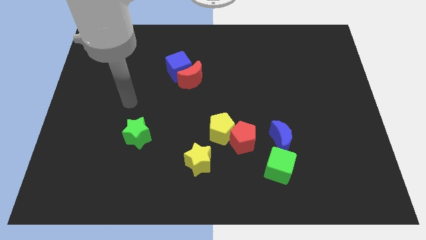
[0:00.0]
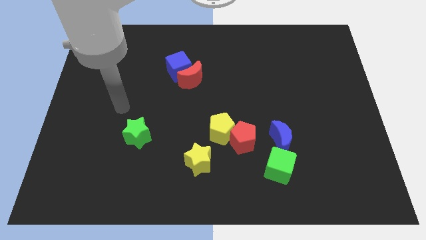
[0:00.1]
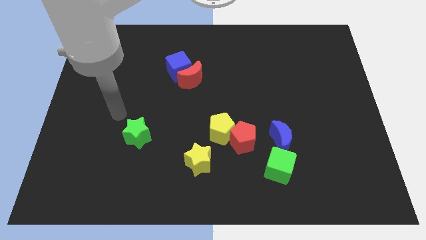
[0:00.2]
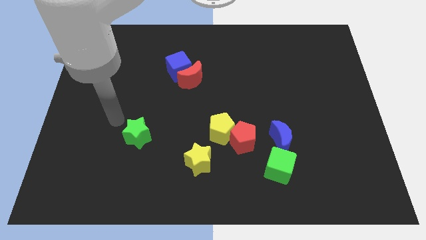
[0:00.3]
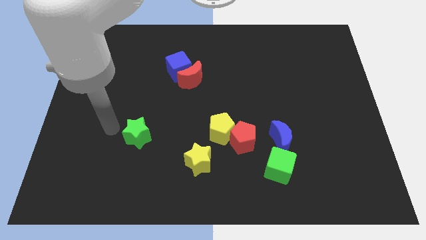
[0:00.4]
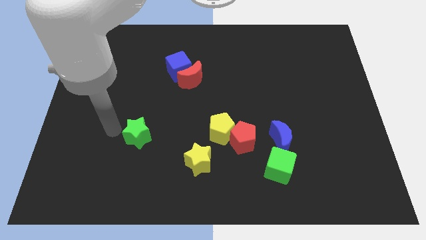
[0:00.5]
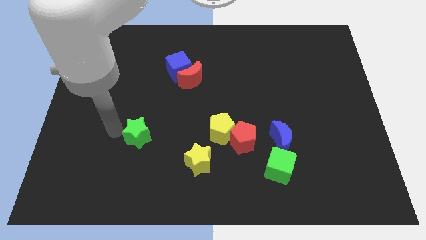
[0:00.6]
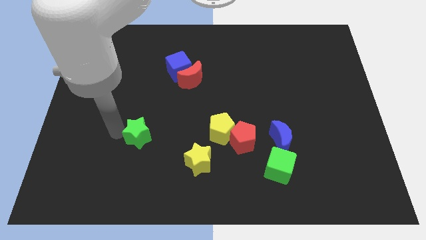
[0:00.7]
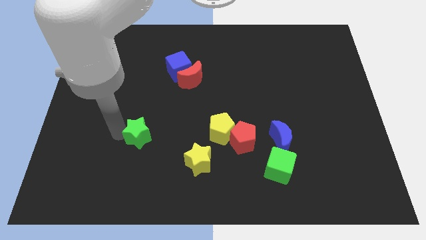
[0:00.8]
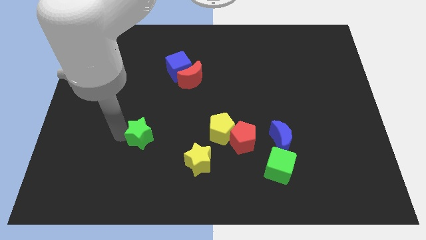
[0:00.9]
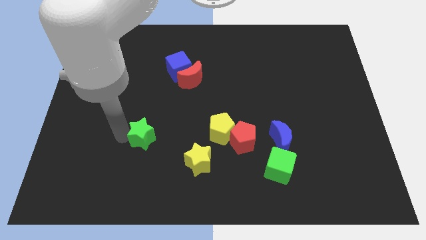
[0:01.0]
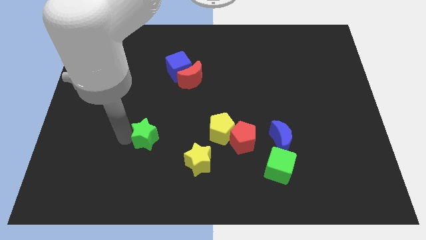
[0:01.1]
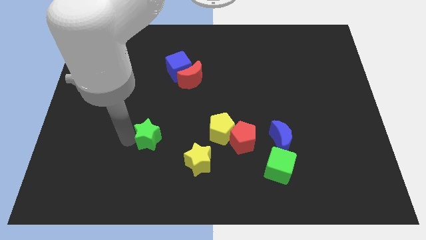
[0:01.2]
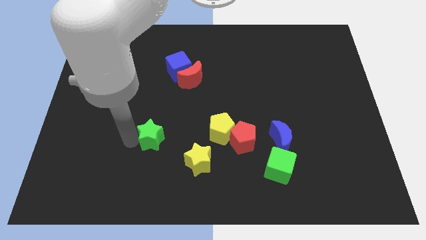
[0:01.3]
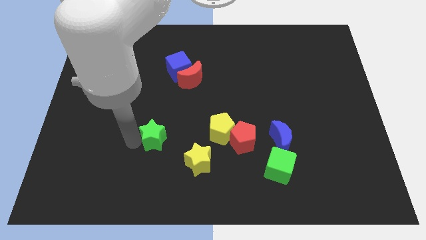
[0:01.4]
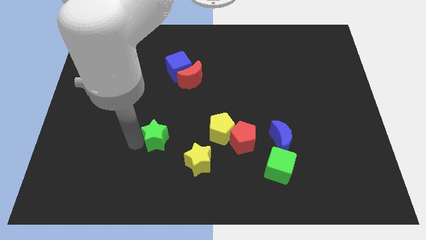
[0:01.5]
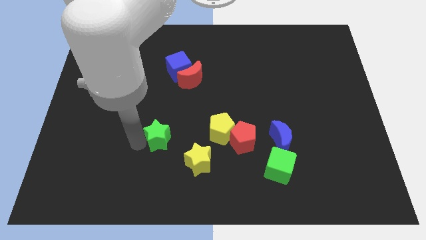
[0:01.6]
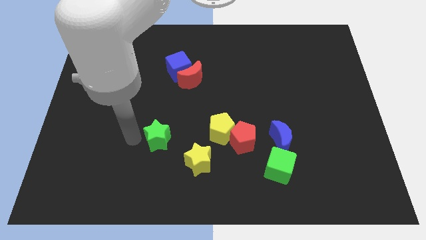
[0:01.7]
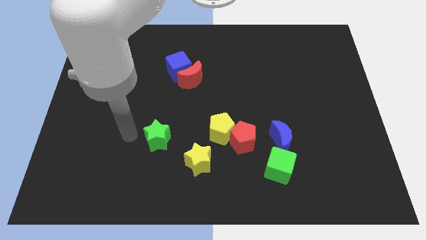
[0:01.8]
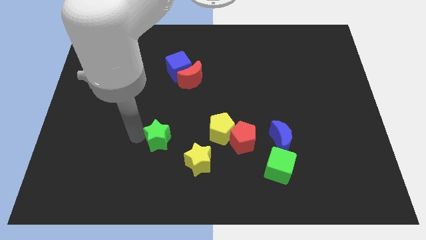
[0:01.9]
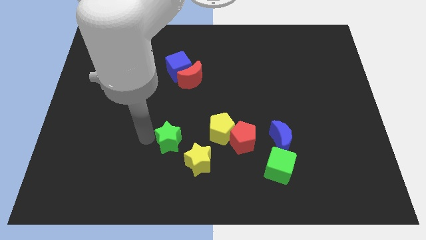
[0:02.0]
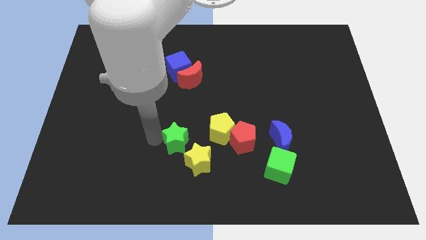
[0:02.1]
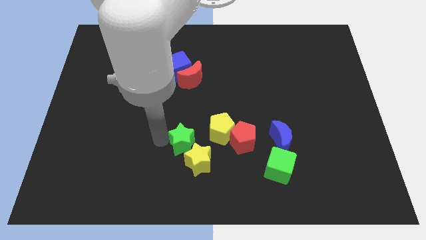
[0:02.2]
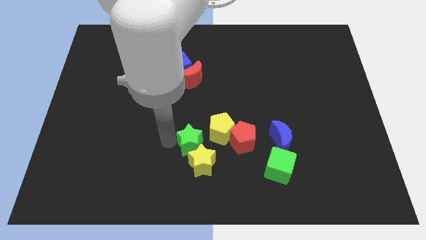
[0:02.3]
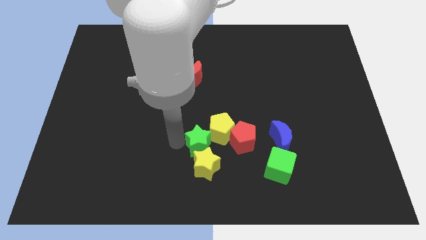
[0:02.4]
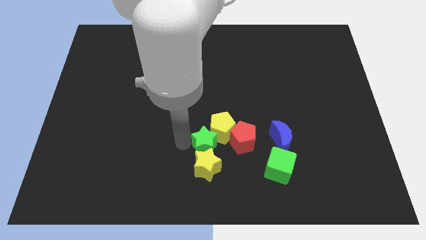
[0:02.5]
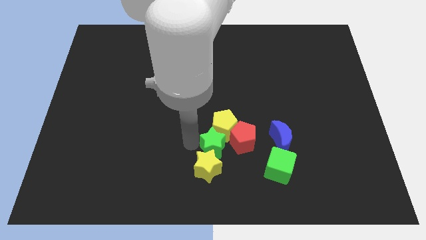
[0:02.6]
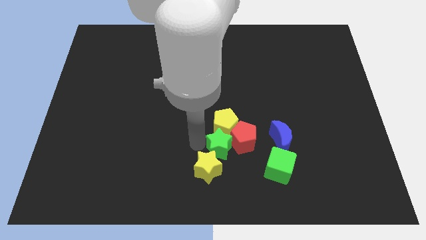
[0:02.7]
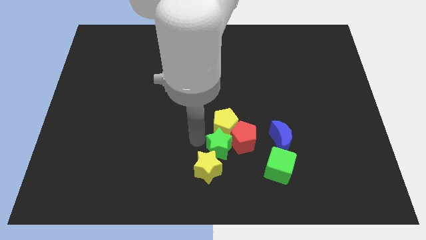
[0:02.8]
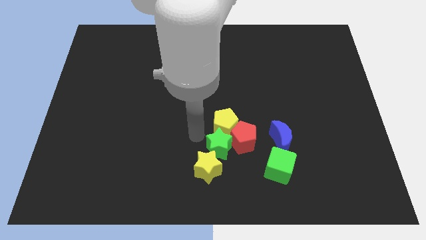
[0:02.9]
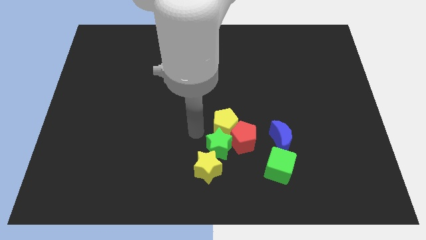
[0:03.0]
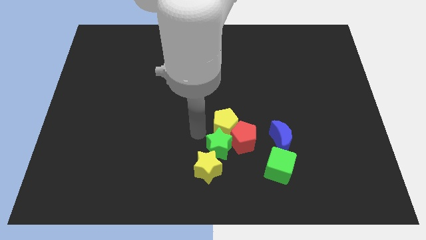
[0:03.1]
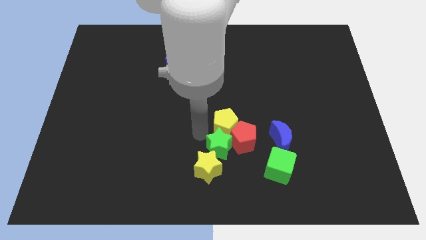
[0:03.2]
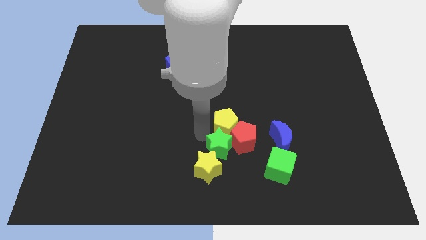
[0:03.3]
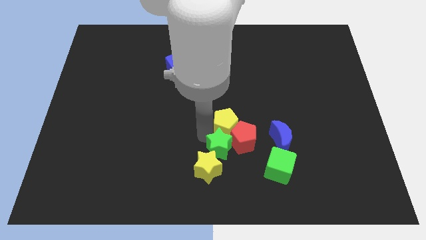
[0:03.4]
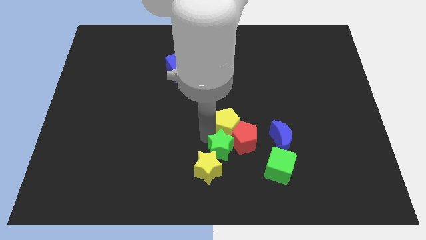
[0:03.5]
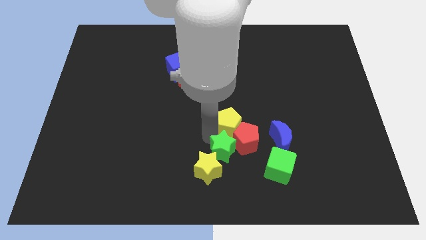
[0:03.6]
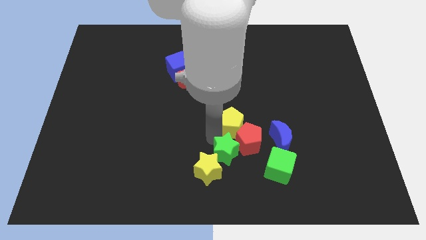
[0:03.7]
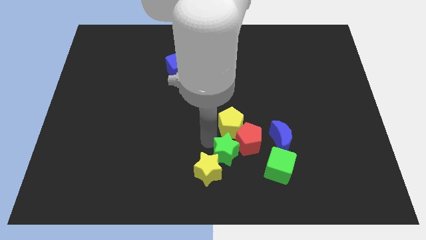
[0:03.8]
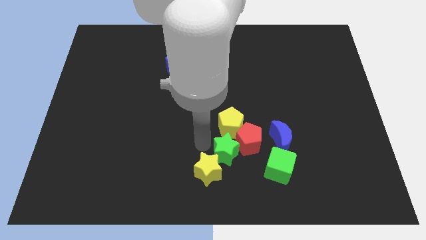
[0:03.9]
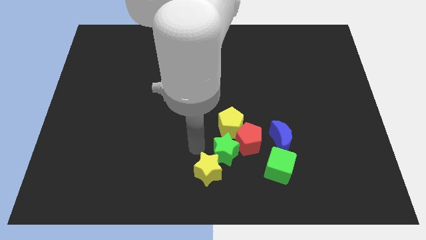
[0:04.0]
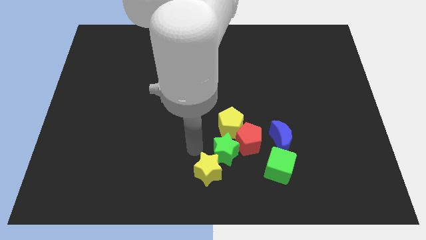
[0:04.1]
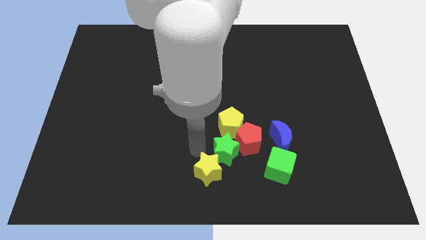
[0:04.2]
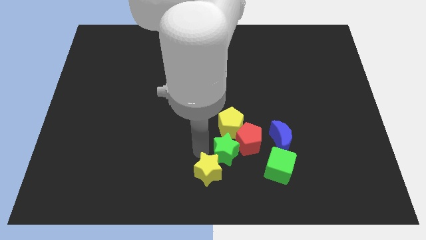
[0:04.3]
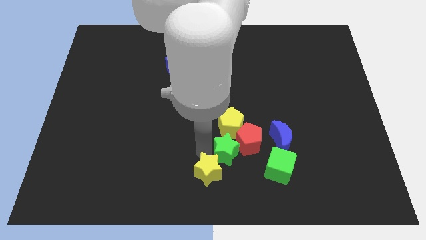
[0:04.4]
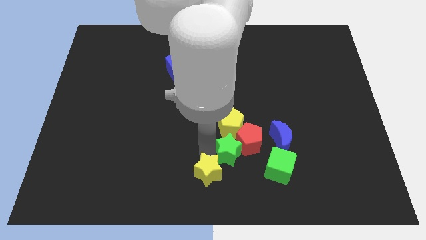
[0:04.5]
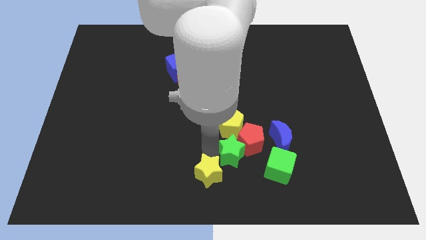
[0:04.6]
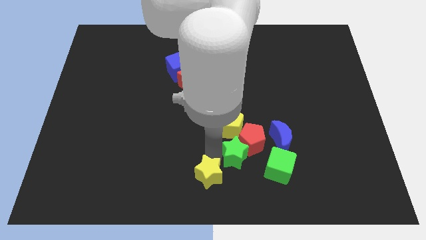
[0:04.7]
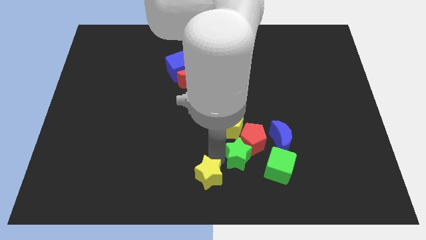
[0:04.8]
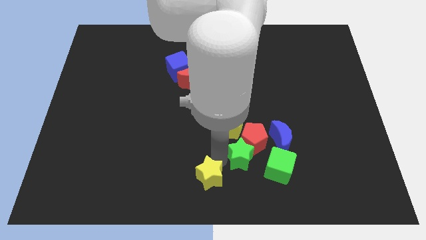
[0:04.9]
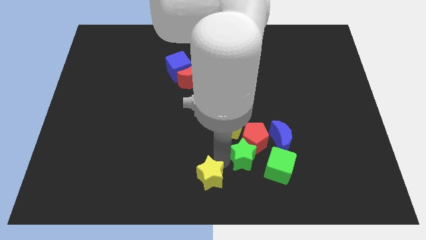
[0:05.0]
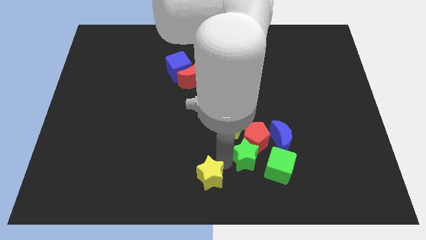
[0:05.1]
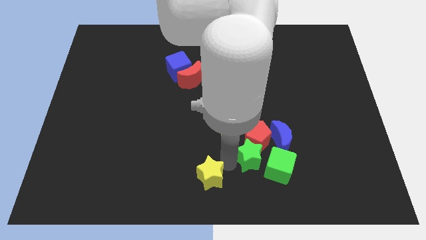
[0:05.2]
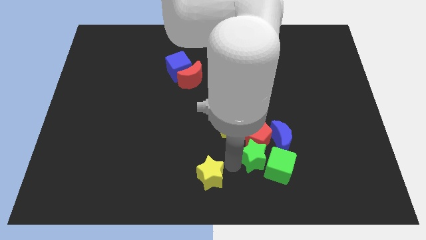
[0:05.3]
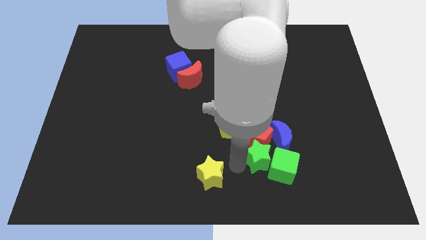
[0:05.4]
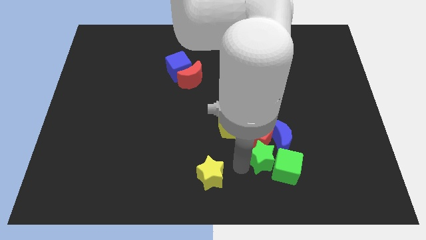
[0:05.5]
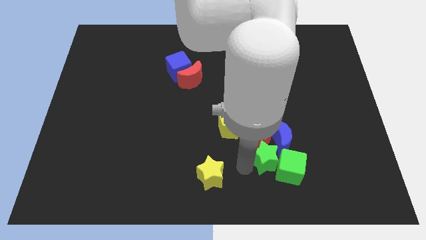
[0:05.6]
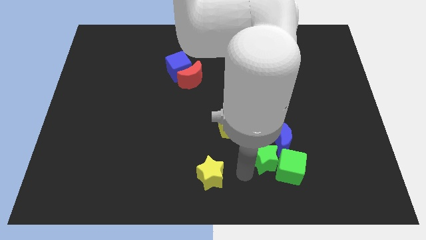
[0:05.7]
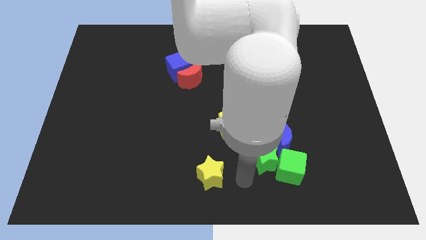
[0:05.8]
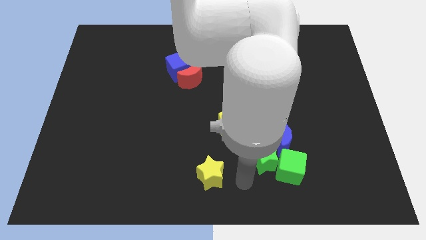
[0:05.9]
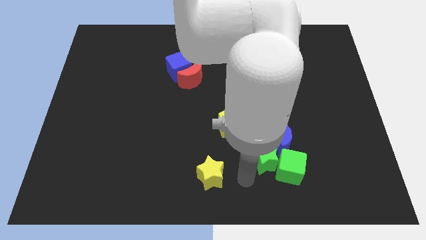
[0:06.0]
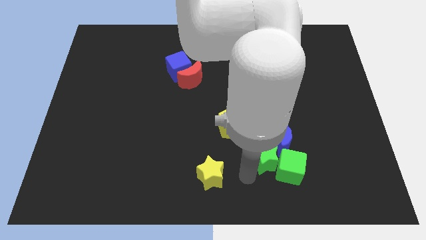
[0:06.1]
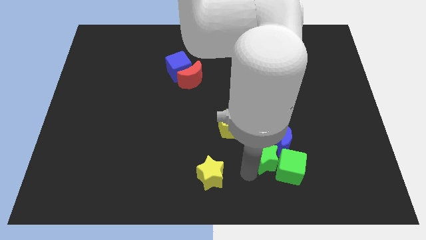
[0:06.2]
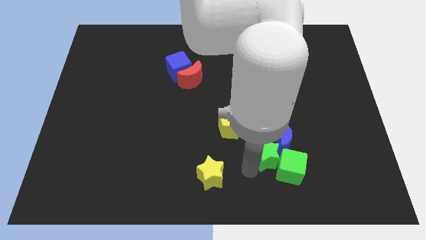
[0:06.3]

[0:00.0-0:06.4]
move the green star next to the blue moon

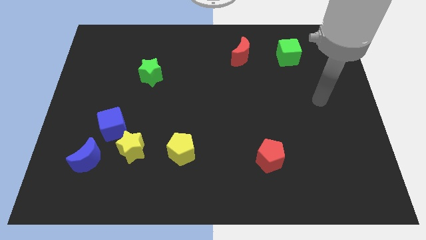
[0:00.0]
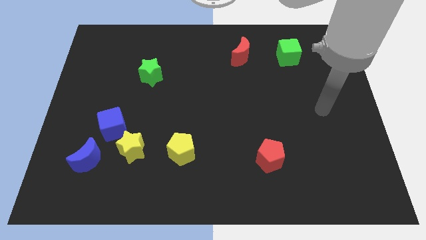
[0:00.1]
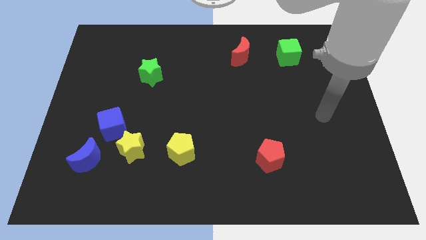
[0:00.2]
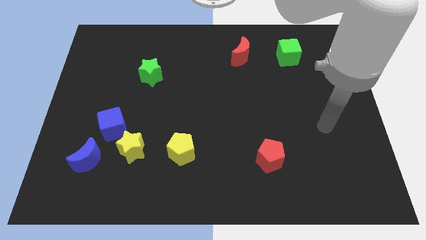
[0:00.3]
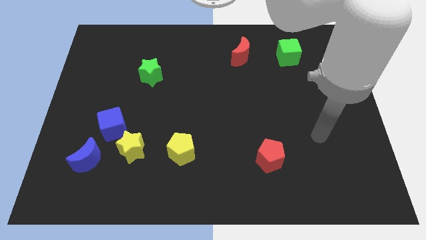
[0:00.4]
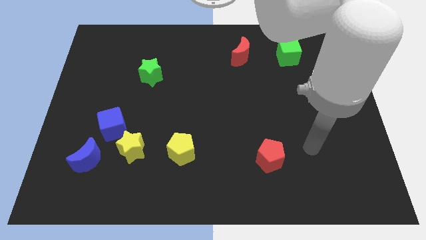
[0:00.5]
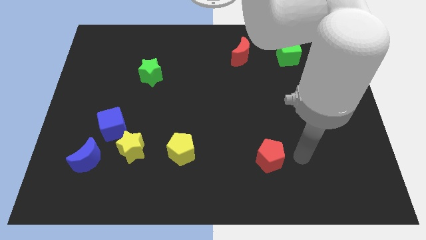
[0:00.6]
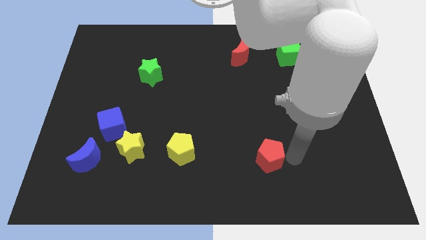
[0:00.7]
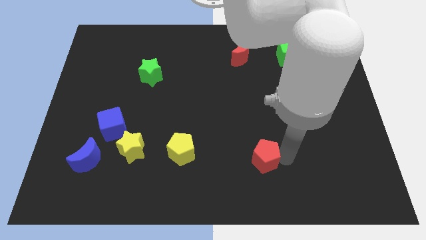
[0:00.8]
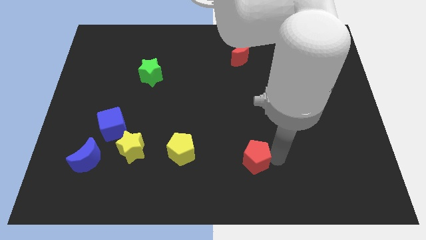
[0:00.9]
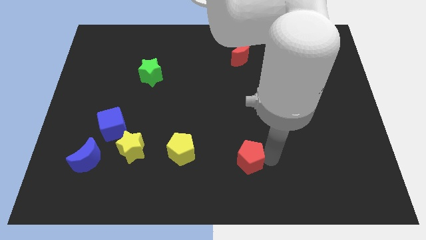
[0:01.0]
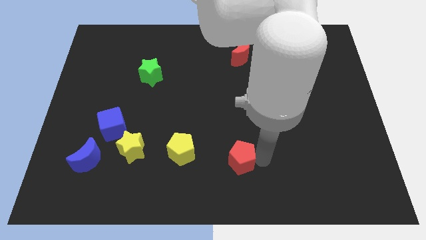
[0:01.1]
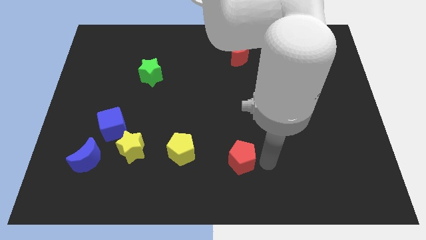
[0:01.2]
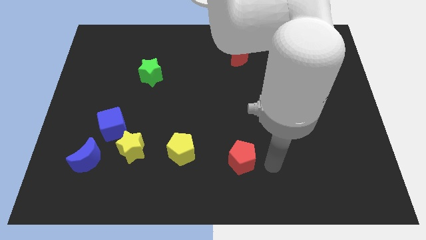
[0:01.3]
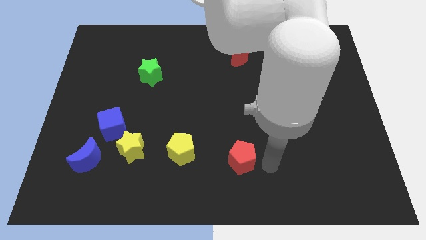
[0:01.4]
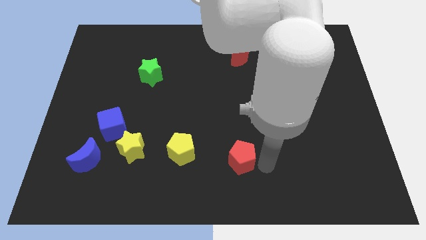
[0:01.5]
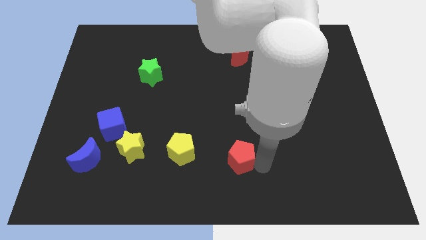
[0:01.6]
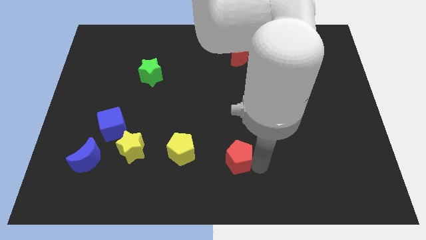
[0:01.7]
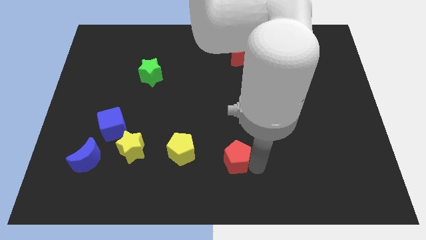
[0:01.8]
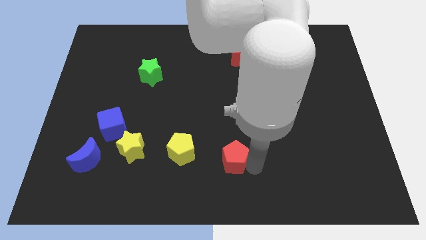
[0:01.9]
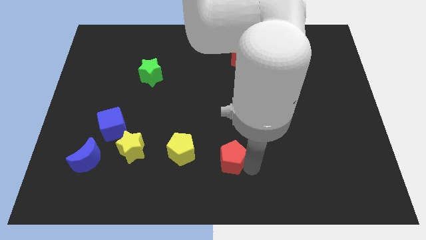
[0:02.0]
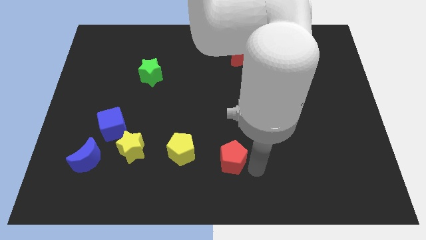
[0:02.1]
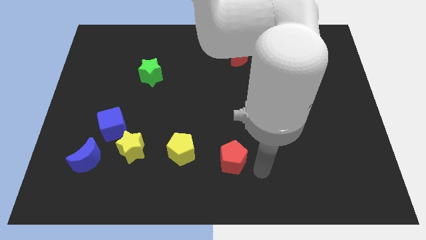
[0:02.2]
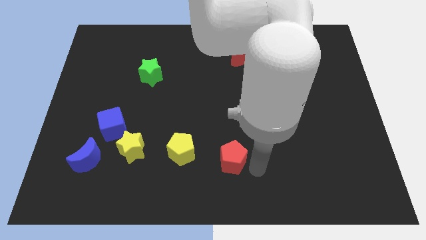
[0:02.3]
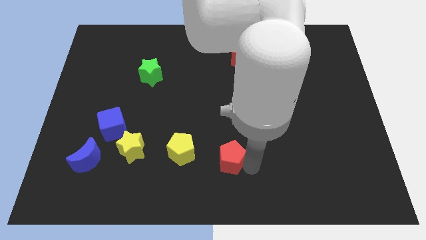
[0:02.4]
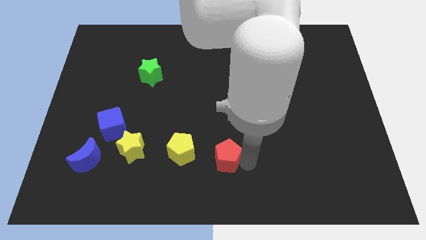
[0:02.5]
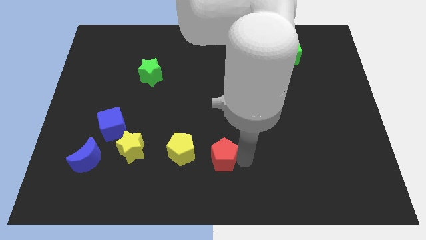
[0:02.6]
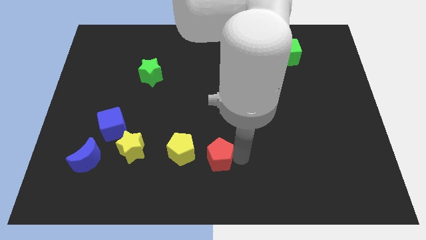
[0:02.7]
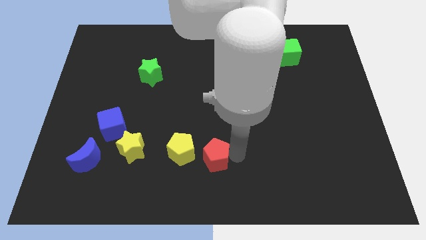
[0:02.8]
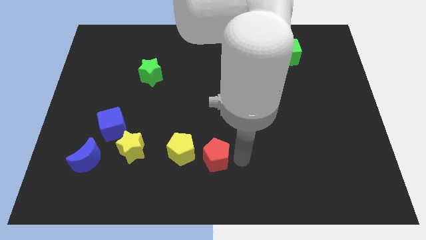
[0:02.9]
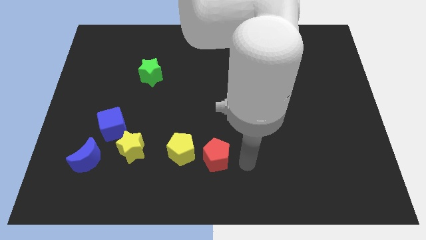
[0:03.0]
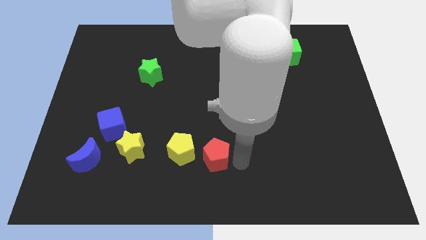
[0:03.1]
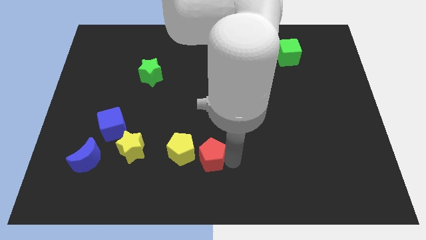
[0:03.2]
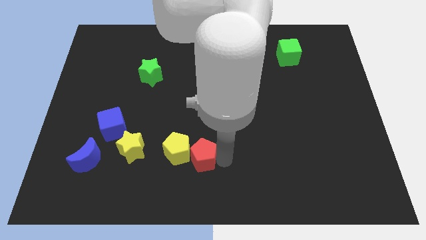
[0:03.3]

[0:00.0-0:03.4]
slide the red pentagon towards the yellow pentagon
